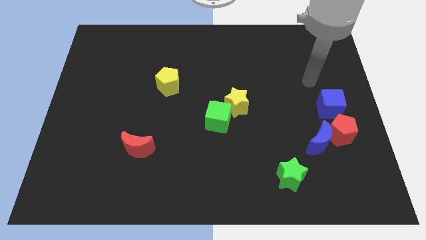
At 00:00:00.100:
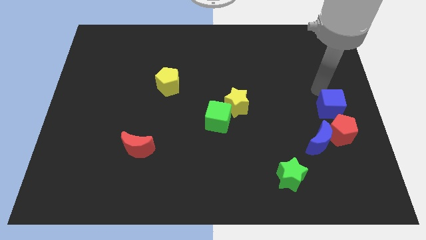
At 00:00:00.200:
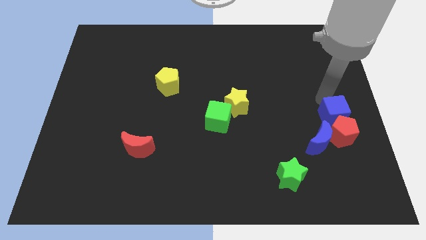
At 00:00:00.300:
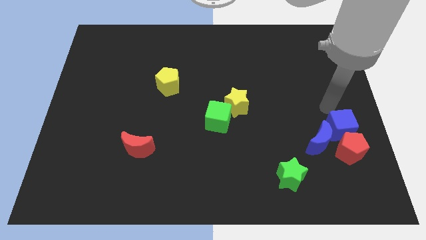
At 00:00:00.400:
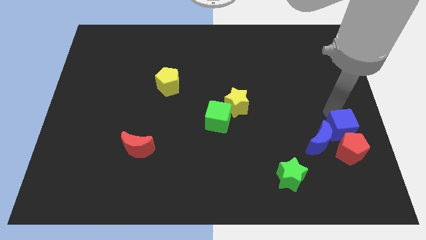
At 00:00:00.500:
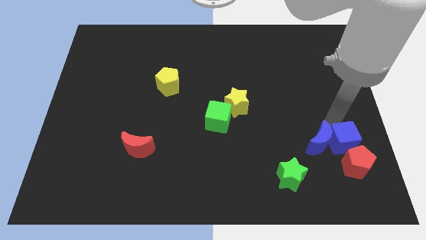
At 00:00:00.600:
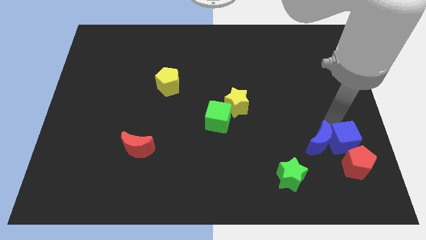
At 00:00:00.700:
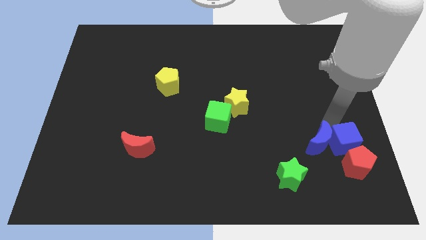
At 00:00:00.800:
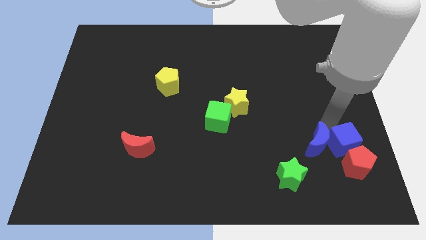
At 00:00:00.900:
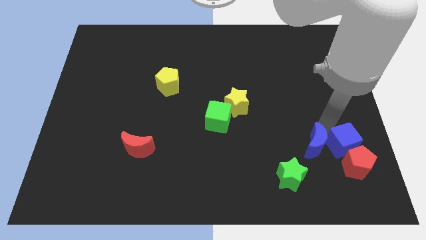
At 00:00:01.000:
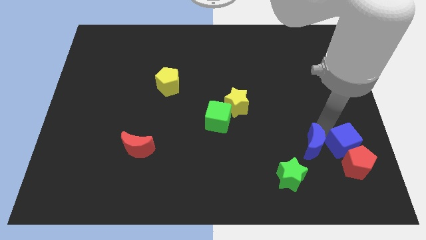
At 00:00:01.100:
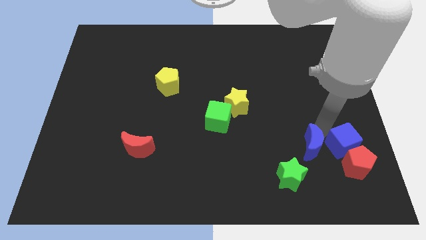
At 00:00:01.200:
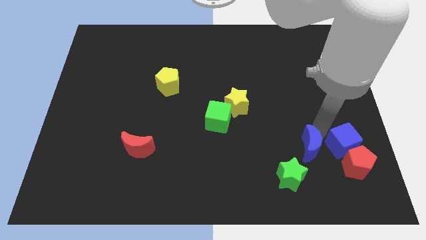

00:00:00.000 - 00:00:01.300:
pull the blue moon apart from the red pentagon

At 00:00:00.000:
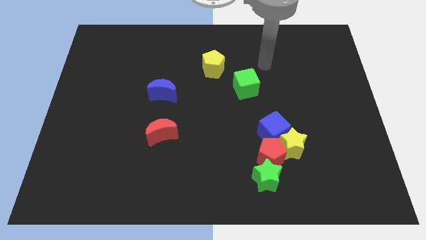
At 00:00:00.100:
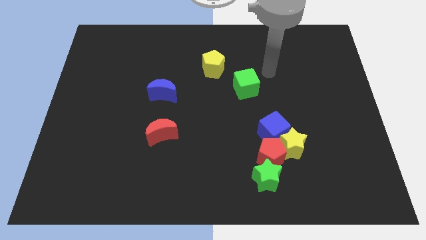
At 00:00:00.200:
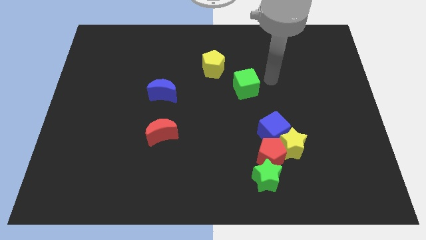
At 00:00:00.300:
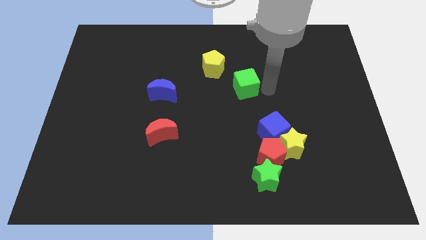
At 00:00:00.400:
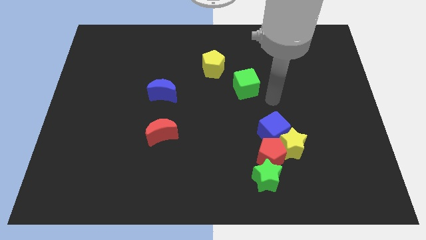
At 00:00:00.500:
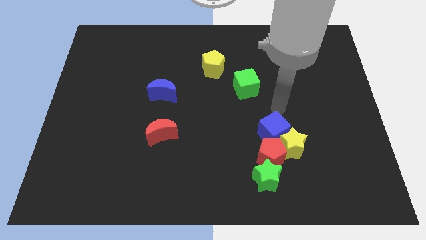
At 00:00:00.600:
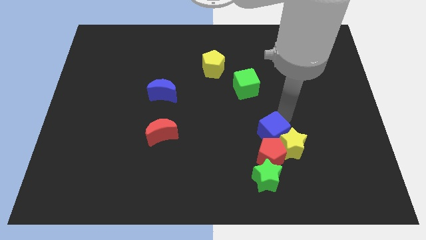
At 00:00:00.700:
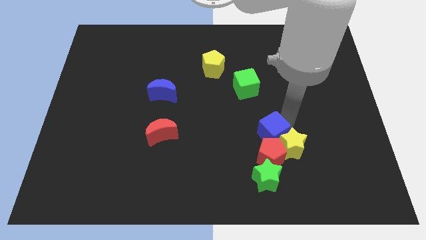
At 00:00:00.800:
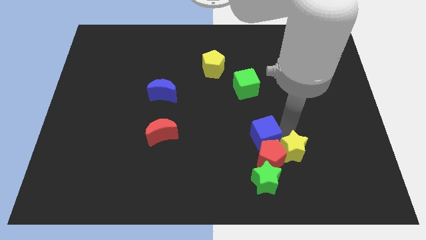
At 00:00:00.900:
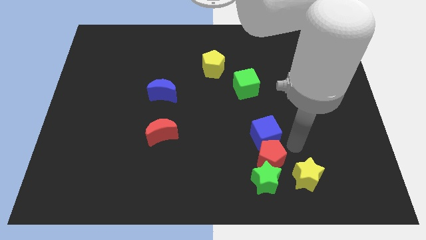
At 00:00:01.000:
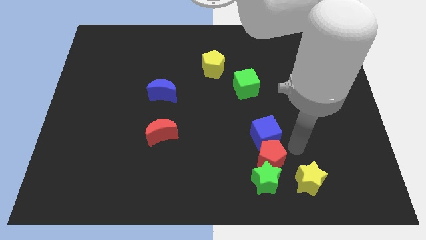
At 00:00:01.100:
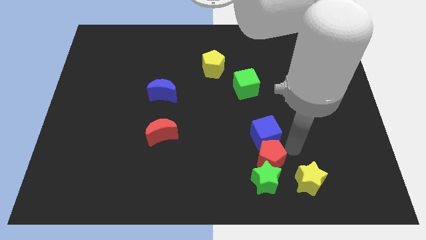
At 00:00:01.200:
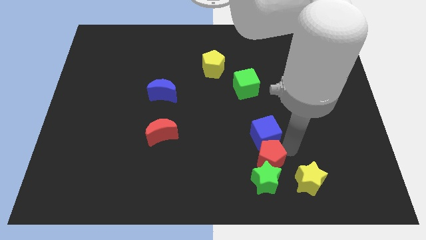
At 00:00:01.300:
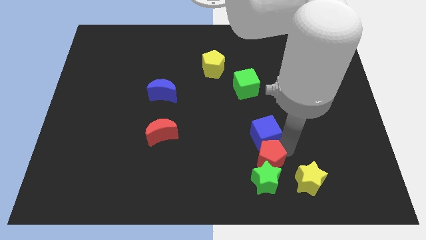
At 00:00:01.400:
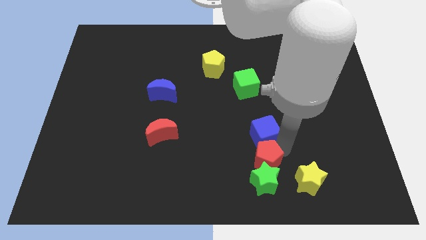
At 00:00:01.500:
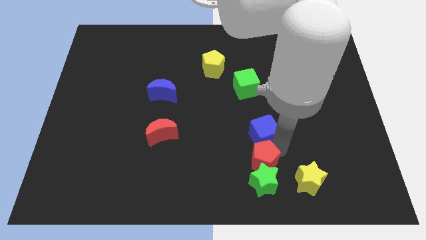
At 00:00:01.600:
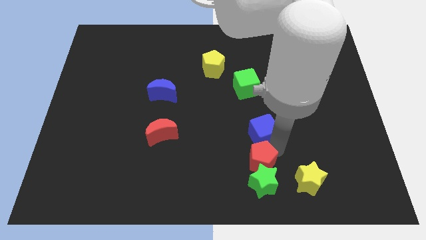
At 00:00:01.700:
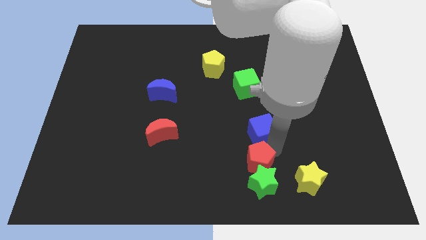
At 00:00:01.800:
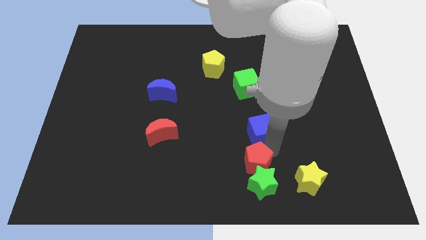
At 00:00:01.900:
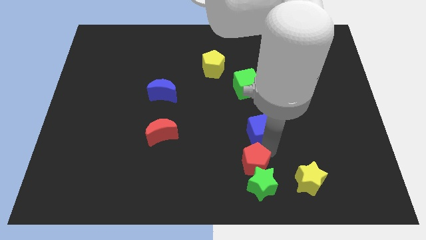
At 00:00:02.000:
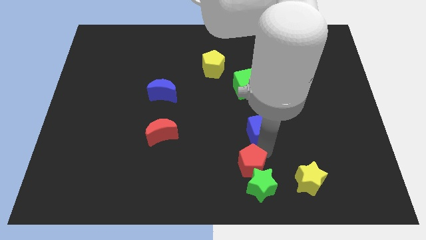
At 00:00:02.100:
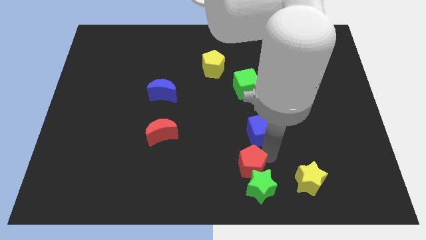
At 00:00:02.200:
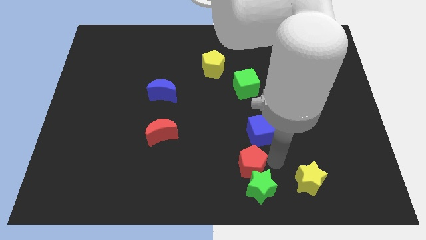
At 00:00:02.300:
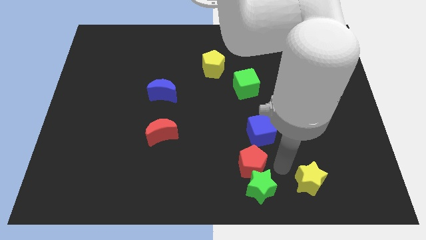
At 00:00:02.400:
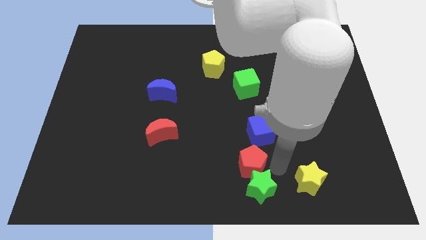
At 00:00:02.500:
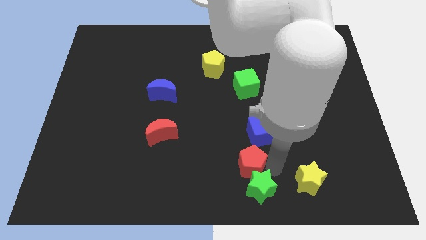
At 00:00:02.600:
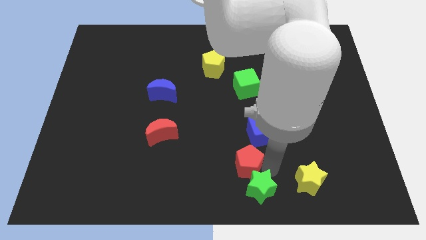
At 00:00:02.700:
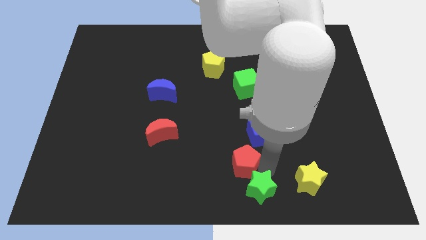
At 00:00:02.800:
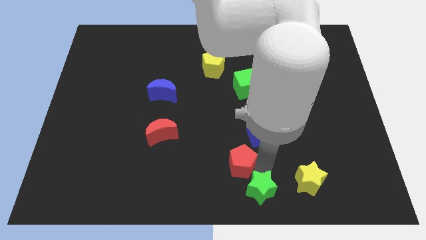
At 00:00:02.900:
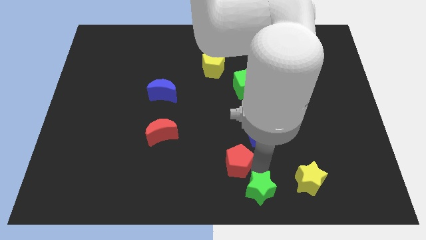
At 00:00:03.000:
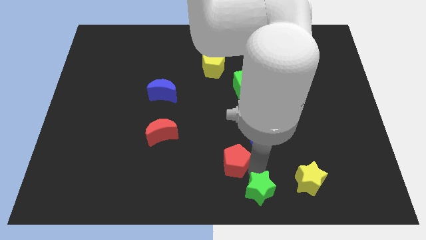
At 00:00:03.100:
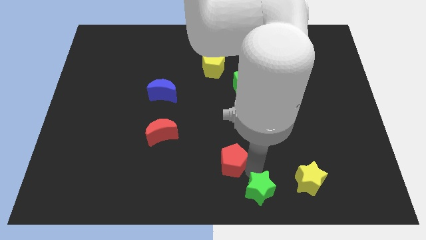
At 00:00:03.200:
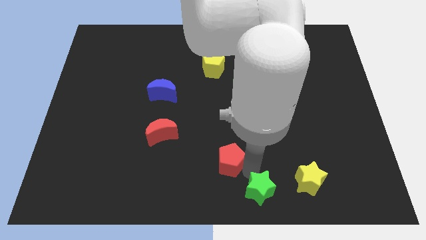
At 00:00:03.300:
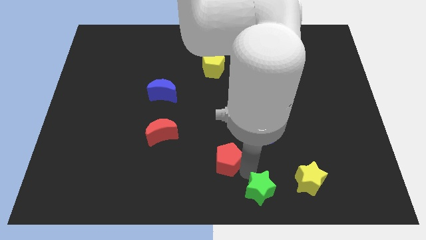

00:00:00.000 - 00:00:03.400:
separate the red pentagon from the group

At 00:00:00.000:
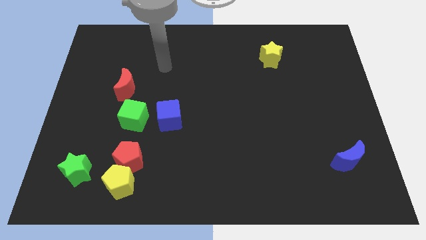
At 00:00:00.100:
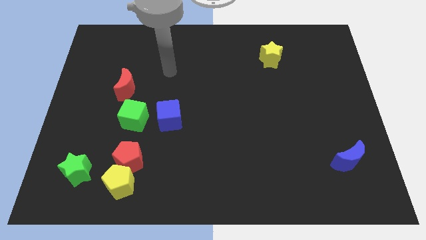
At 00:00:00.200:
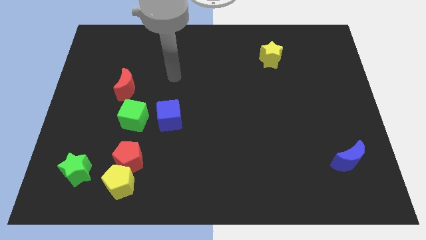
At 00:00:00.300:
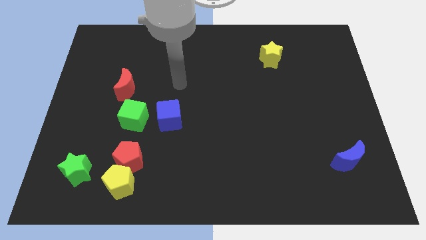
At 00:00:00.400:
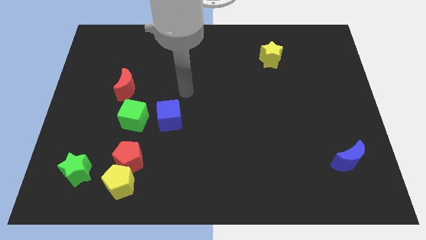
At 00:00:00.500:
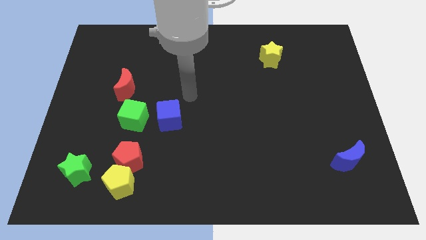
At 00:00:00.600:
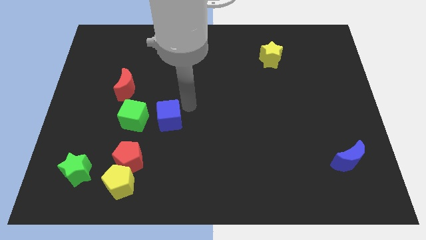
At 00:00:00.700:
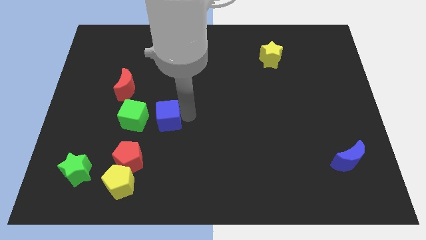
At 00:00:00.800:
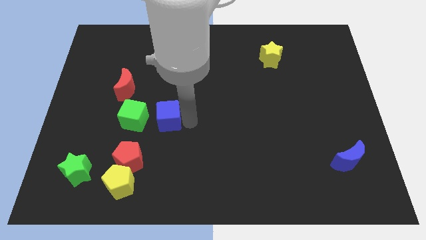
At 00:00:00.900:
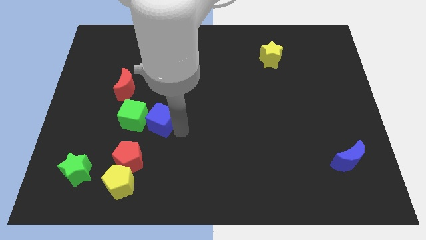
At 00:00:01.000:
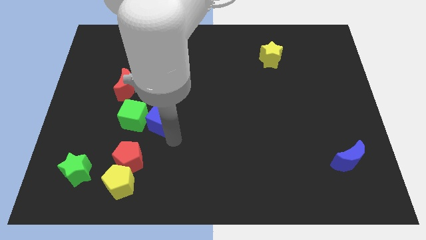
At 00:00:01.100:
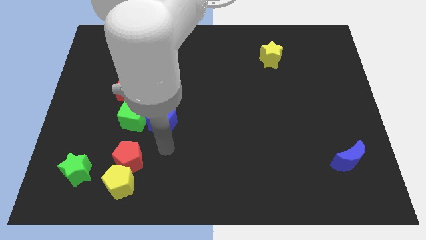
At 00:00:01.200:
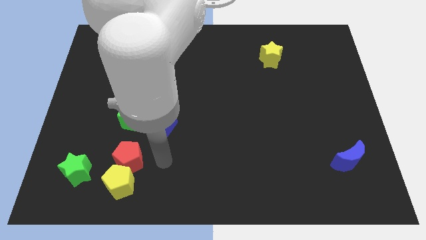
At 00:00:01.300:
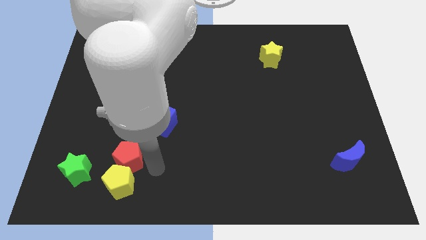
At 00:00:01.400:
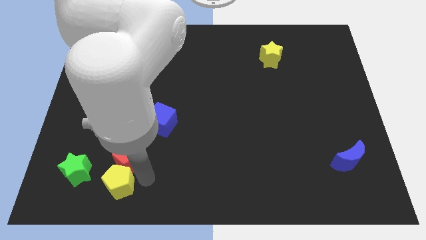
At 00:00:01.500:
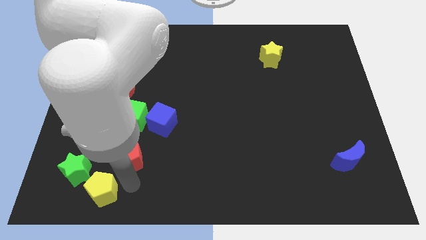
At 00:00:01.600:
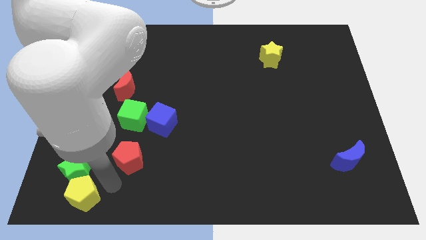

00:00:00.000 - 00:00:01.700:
move the red pentagon away from the yellow pentagon

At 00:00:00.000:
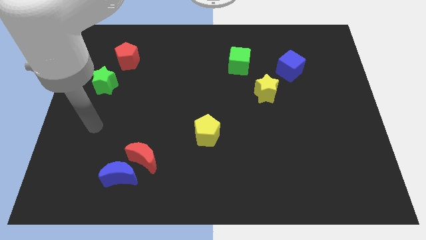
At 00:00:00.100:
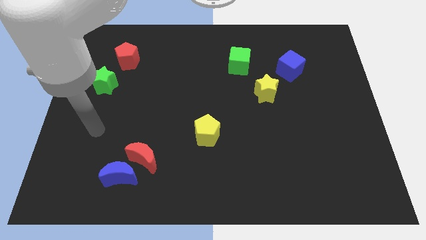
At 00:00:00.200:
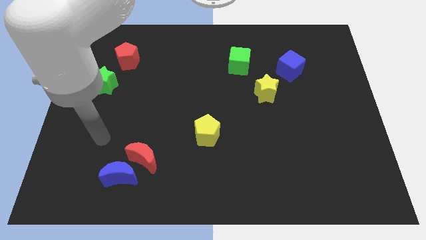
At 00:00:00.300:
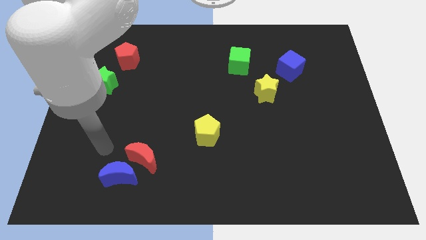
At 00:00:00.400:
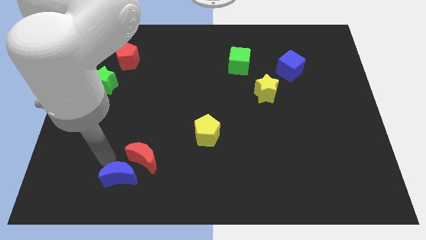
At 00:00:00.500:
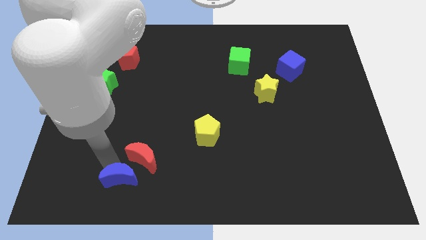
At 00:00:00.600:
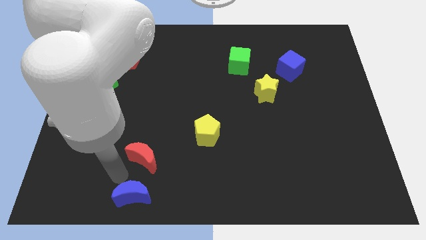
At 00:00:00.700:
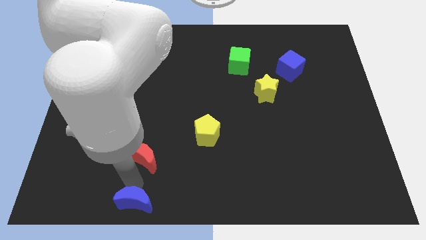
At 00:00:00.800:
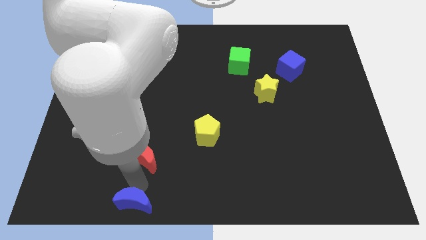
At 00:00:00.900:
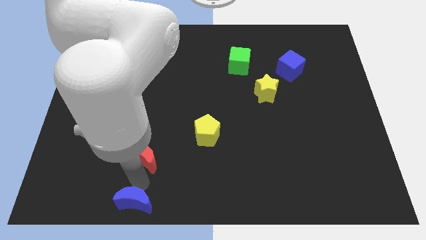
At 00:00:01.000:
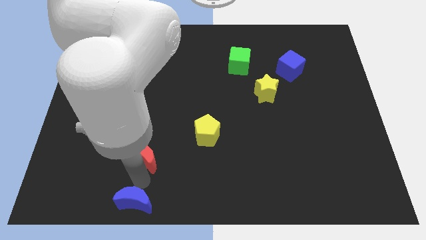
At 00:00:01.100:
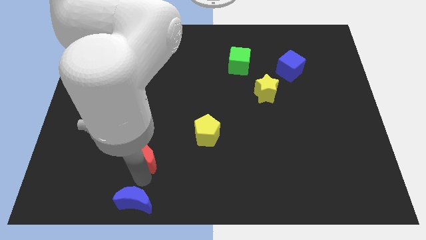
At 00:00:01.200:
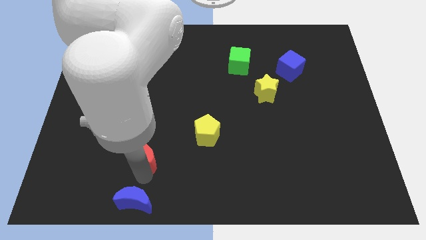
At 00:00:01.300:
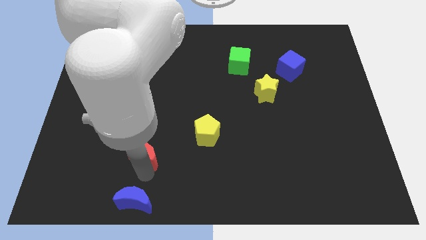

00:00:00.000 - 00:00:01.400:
move the red moon away from the blue moon

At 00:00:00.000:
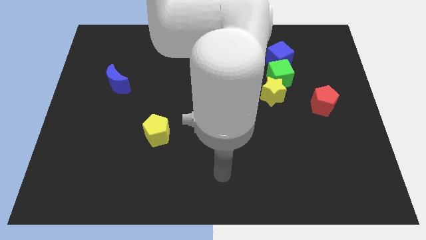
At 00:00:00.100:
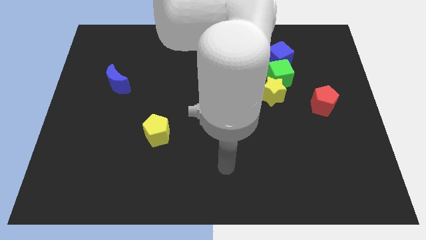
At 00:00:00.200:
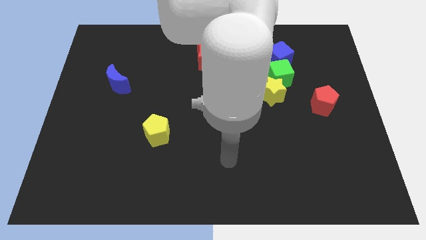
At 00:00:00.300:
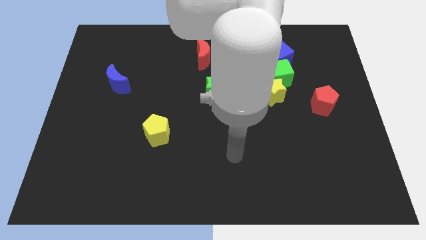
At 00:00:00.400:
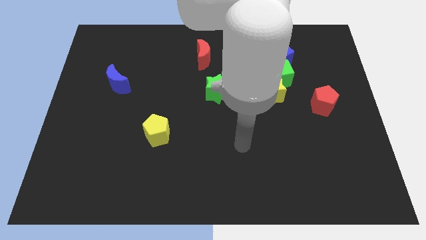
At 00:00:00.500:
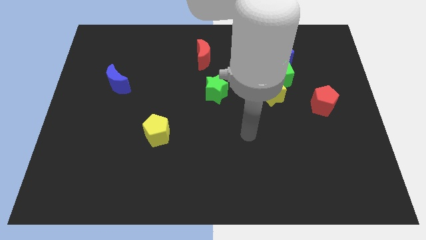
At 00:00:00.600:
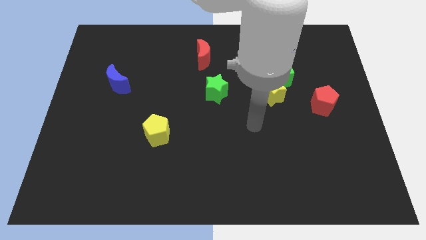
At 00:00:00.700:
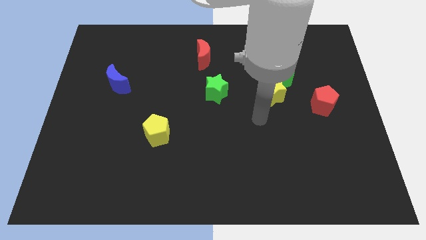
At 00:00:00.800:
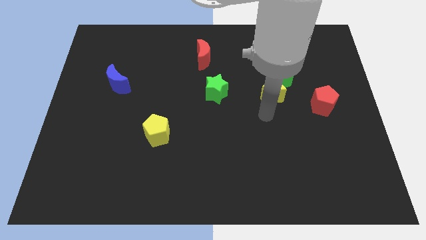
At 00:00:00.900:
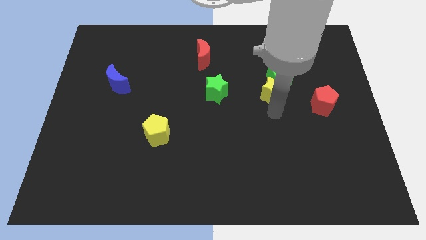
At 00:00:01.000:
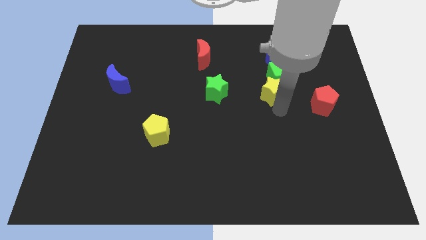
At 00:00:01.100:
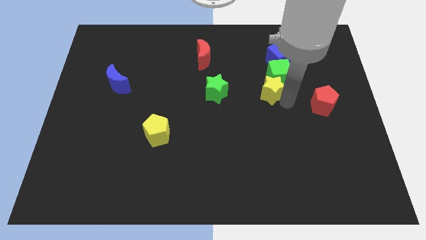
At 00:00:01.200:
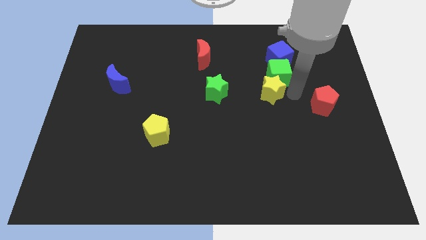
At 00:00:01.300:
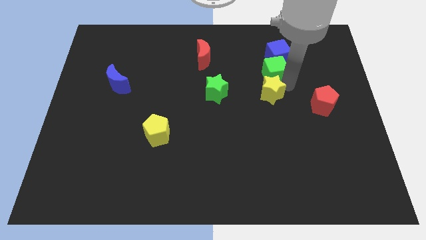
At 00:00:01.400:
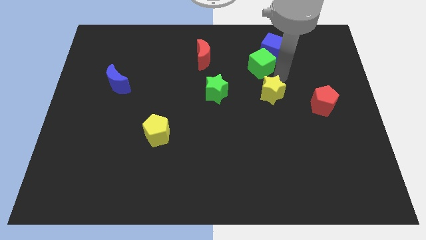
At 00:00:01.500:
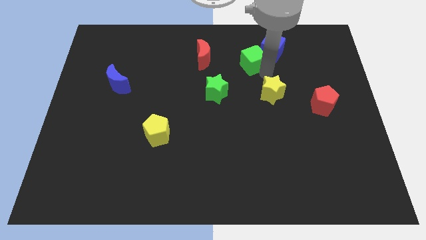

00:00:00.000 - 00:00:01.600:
separate the yellow star from the green cube

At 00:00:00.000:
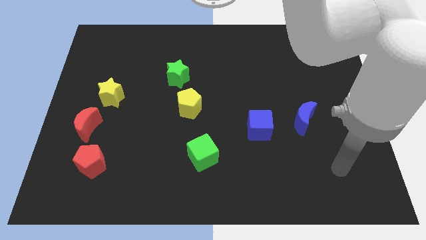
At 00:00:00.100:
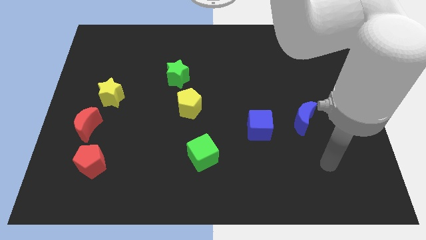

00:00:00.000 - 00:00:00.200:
separate the yellow star from the red moon
